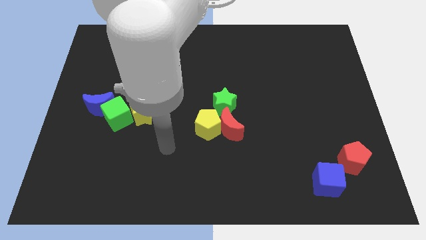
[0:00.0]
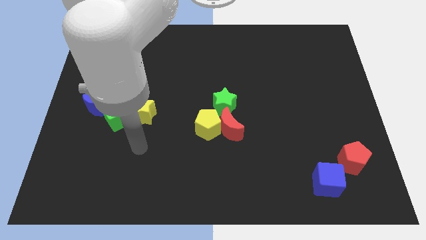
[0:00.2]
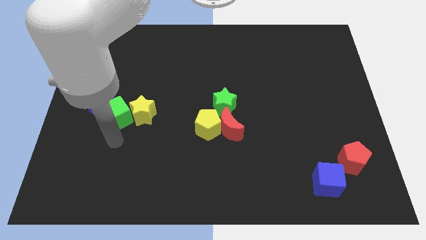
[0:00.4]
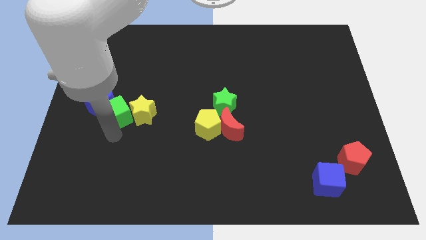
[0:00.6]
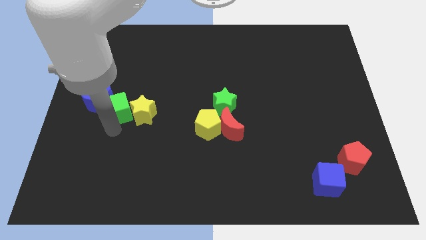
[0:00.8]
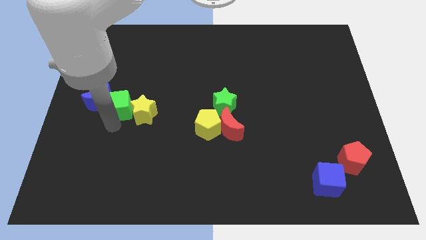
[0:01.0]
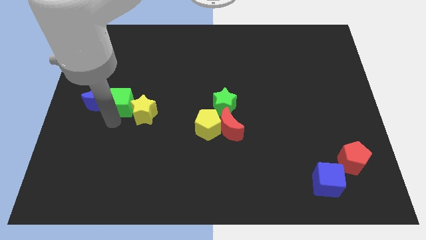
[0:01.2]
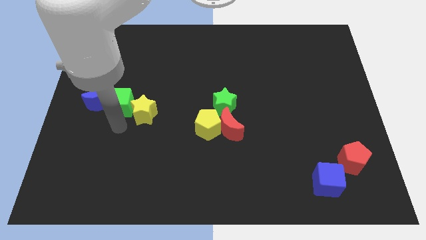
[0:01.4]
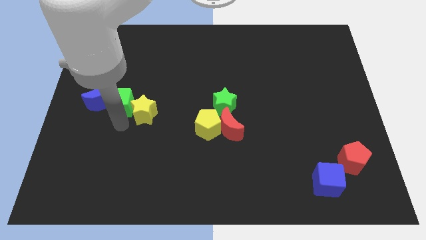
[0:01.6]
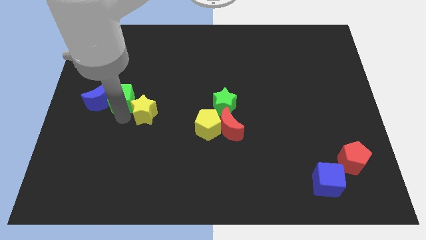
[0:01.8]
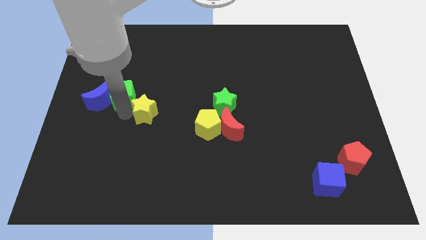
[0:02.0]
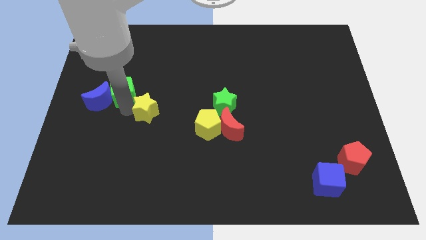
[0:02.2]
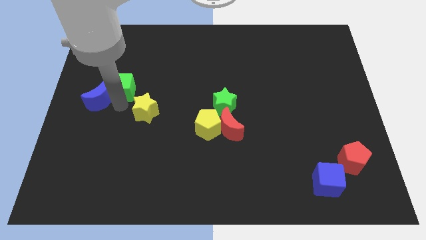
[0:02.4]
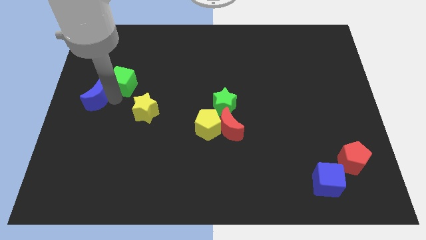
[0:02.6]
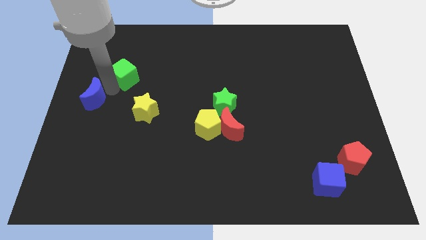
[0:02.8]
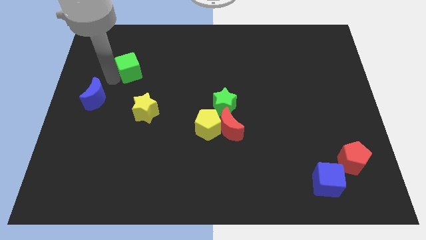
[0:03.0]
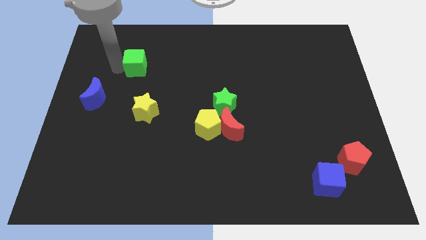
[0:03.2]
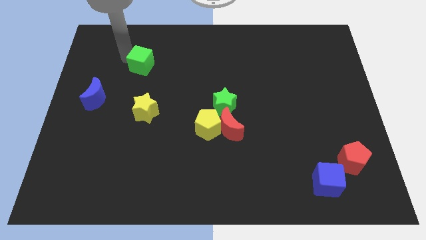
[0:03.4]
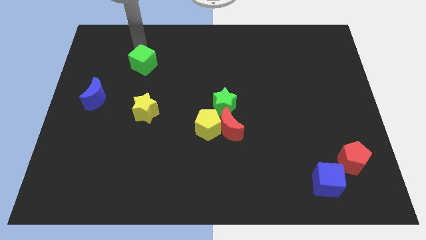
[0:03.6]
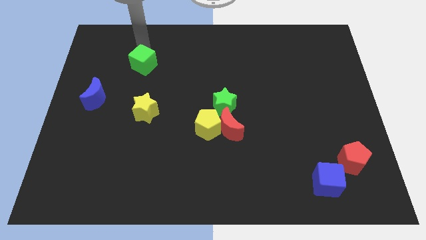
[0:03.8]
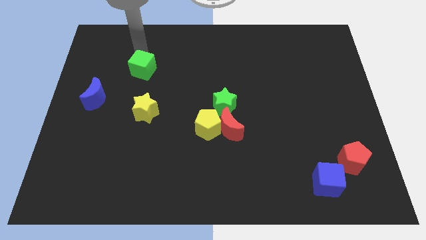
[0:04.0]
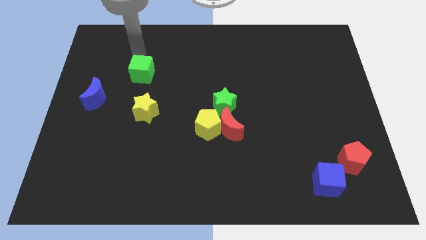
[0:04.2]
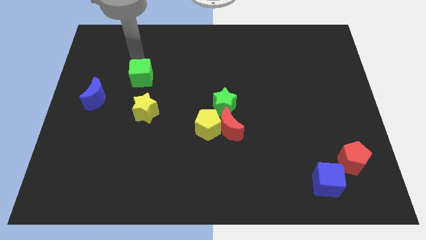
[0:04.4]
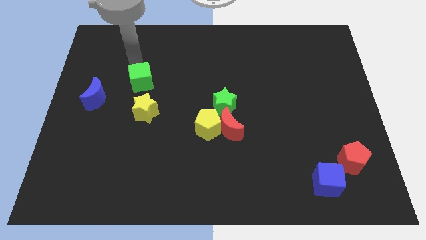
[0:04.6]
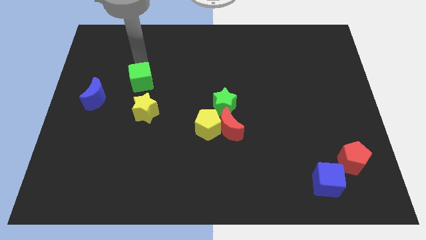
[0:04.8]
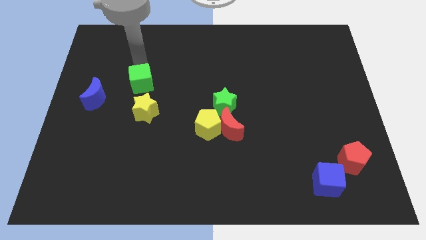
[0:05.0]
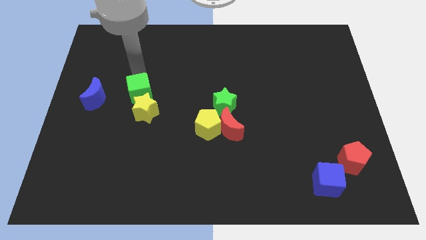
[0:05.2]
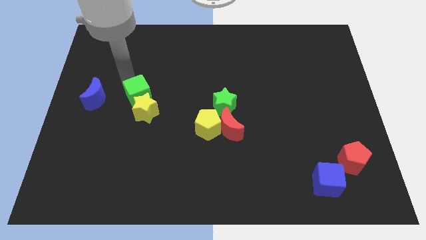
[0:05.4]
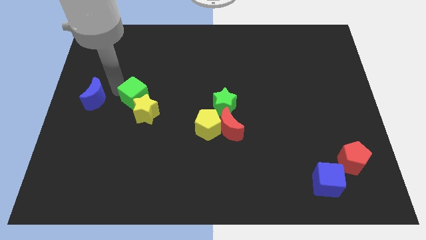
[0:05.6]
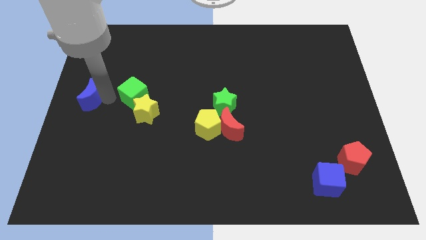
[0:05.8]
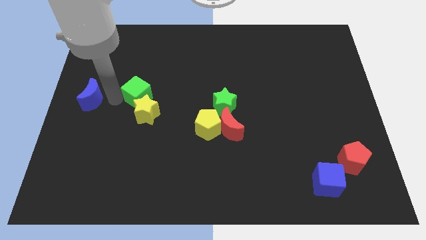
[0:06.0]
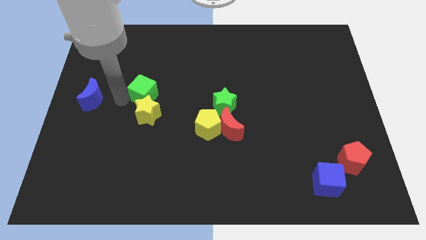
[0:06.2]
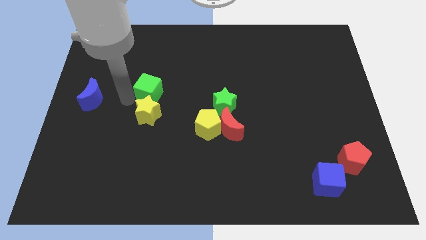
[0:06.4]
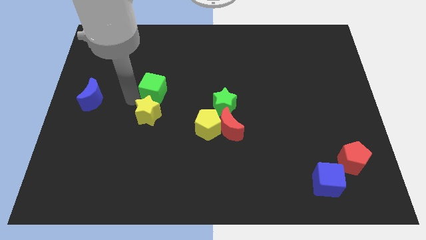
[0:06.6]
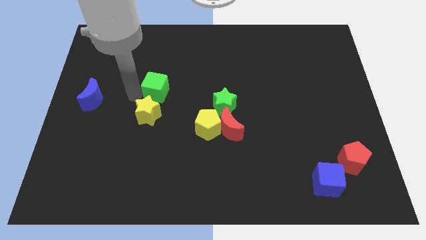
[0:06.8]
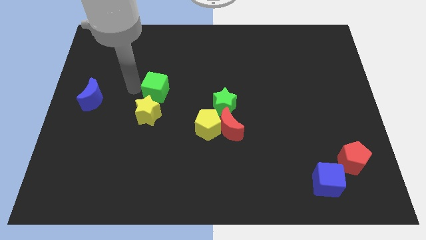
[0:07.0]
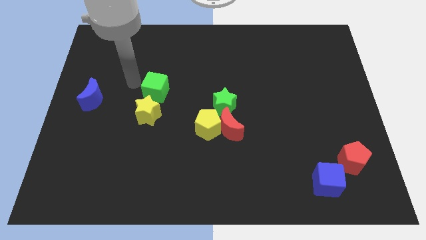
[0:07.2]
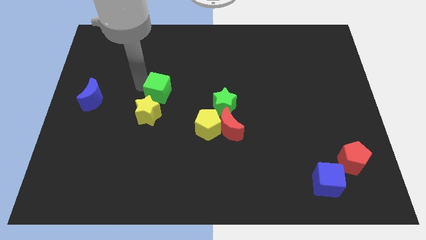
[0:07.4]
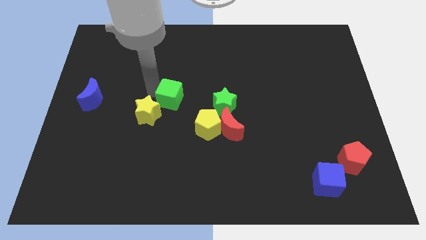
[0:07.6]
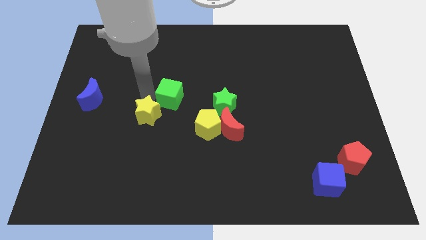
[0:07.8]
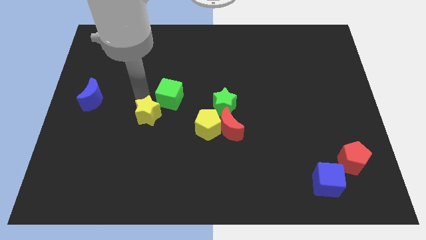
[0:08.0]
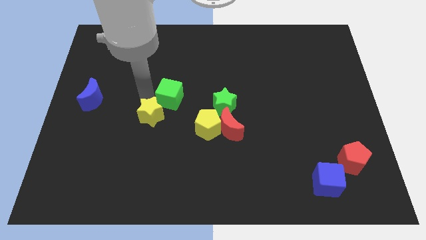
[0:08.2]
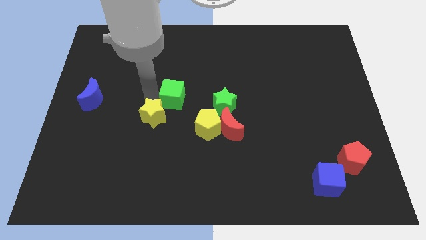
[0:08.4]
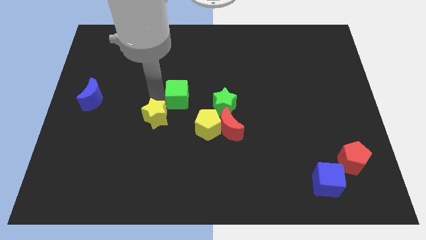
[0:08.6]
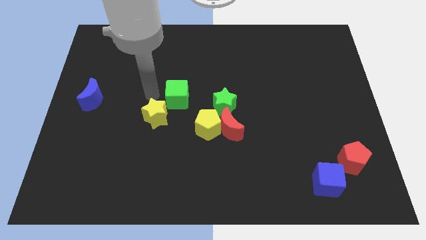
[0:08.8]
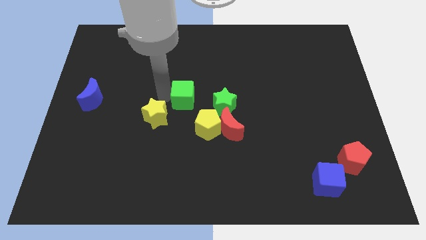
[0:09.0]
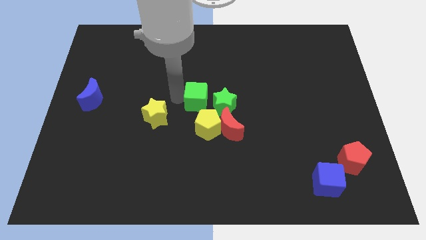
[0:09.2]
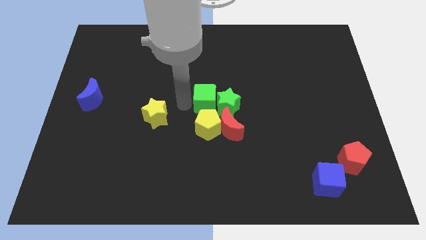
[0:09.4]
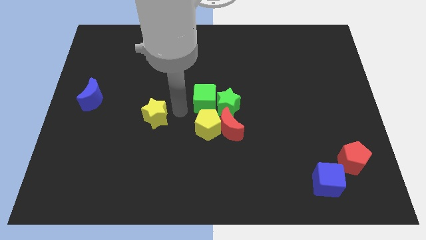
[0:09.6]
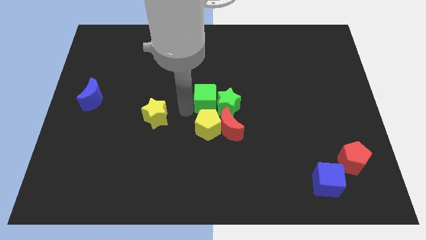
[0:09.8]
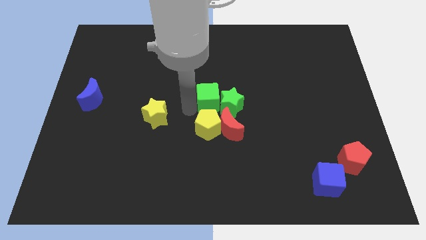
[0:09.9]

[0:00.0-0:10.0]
put the green cube to the top side of the red moon

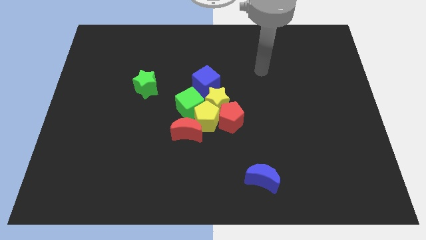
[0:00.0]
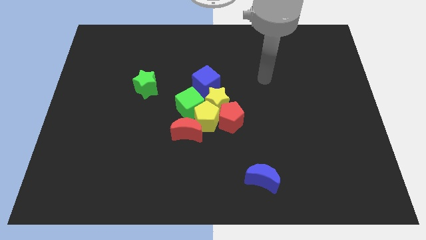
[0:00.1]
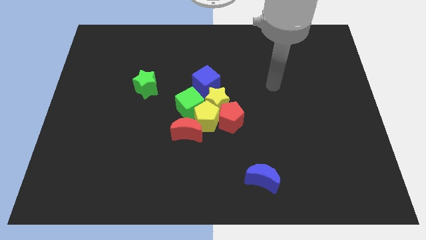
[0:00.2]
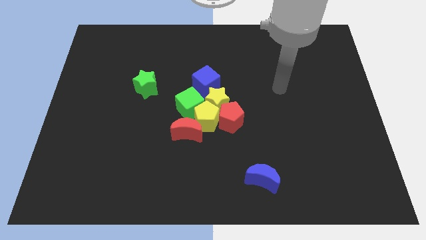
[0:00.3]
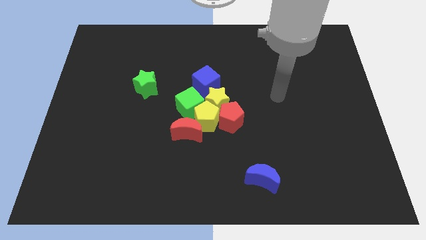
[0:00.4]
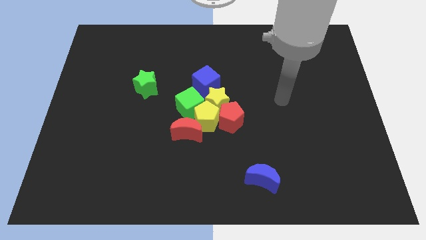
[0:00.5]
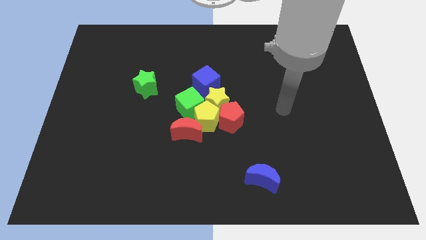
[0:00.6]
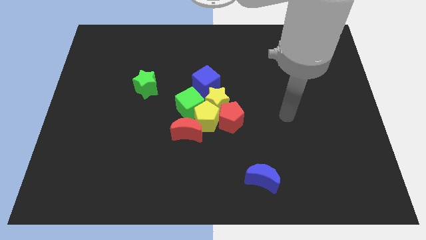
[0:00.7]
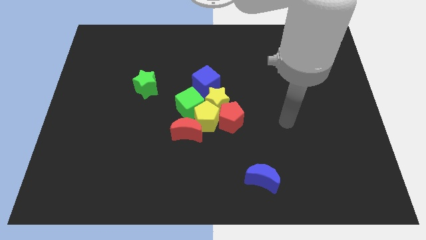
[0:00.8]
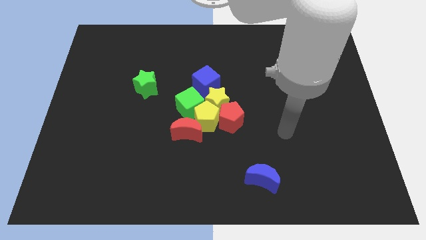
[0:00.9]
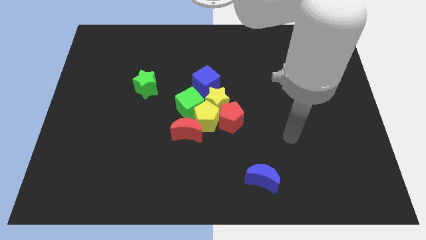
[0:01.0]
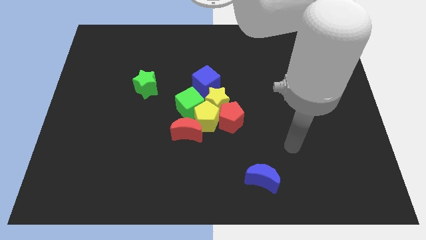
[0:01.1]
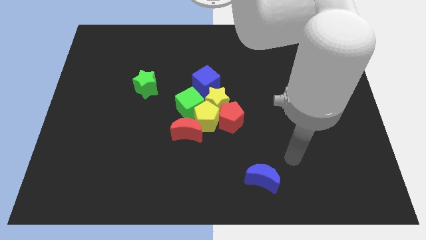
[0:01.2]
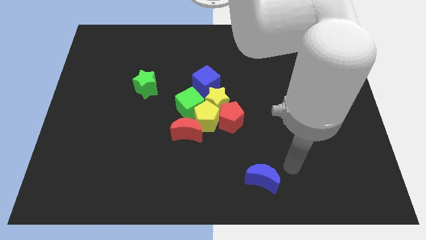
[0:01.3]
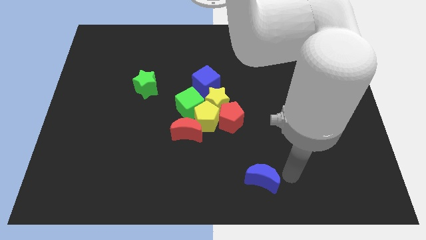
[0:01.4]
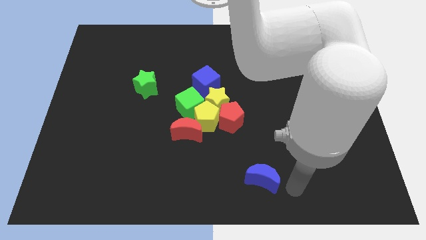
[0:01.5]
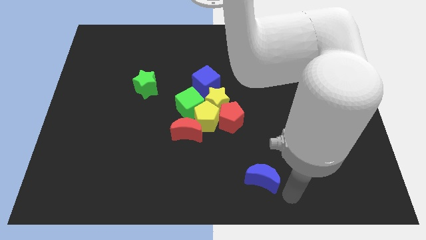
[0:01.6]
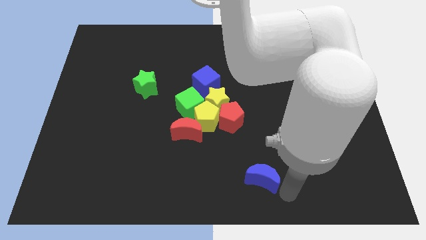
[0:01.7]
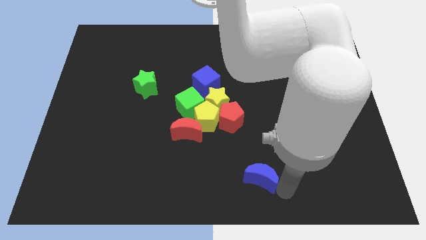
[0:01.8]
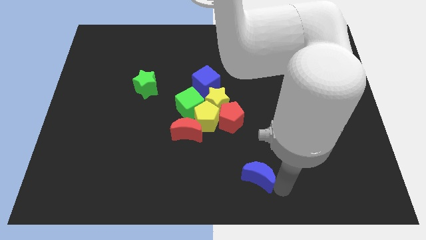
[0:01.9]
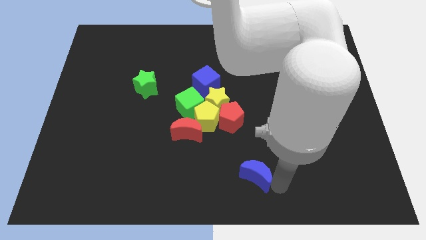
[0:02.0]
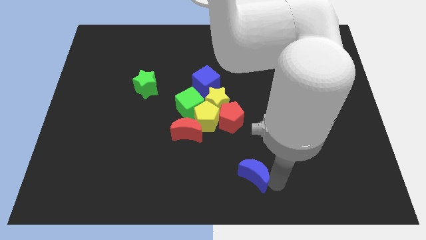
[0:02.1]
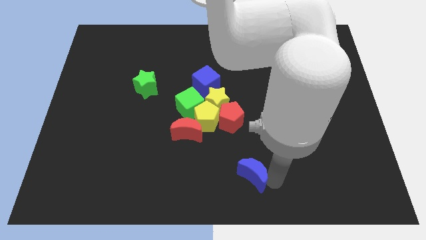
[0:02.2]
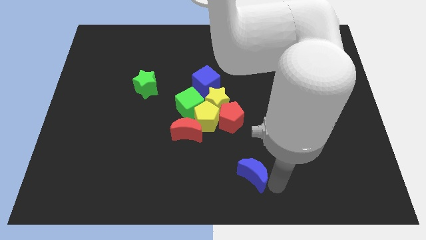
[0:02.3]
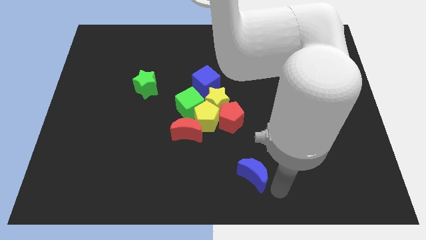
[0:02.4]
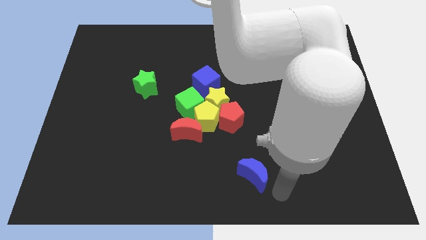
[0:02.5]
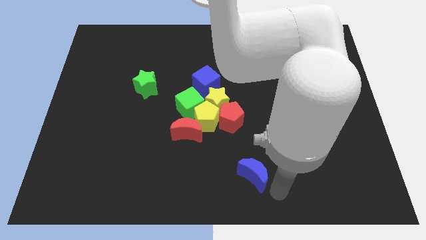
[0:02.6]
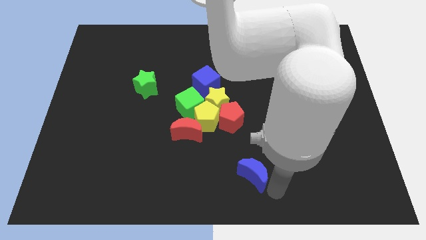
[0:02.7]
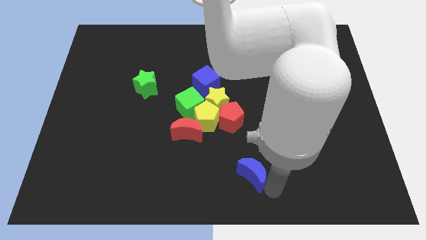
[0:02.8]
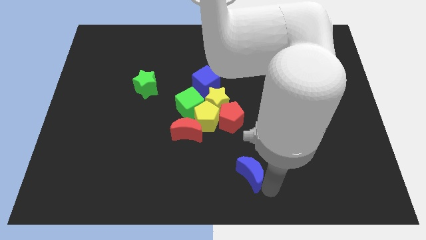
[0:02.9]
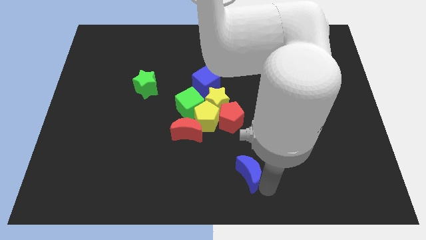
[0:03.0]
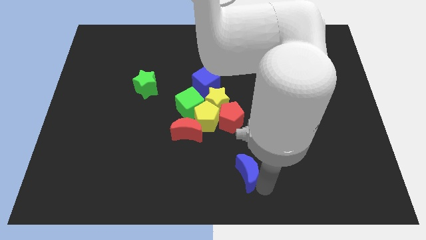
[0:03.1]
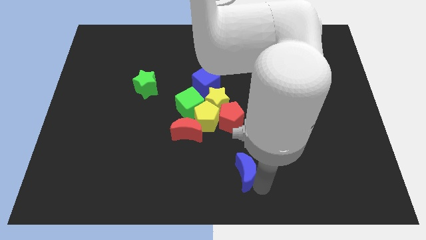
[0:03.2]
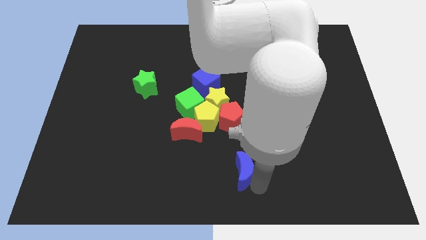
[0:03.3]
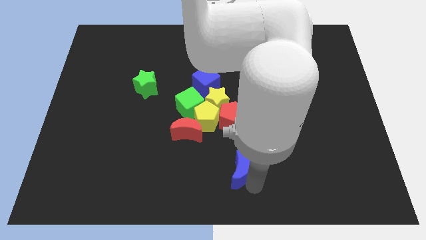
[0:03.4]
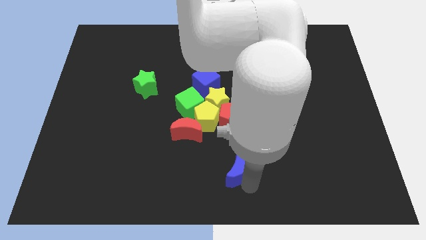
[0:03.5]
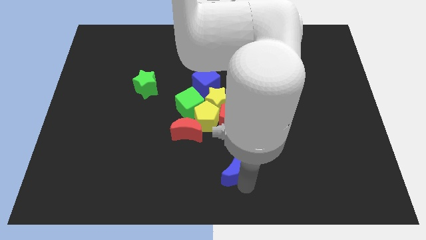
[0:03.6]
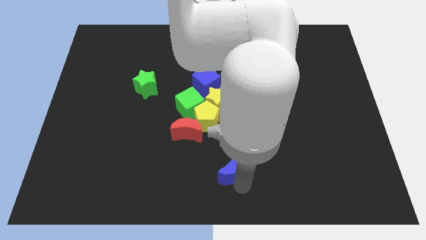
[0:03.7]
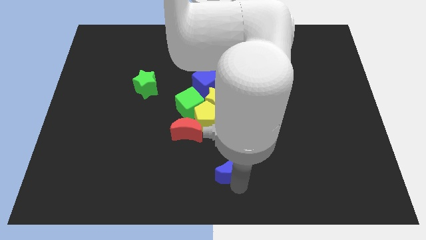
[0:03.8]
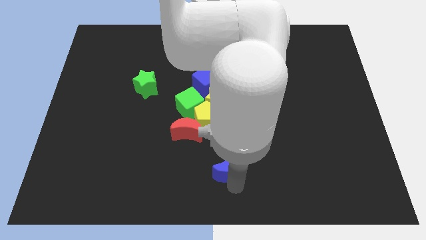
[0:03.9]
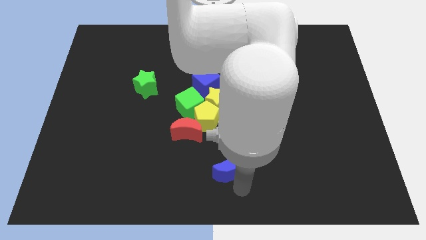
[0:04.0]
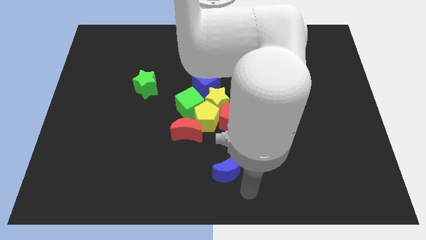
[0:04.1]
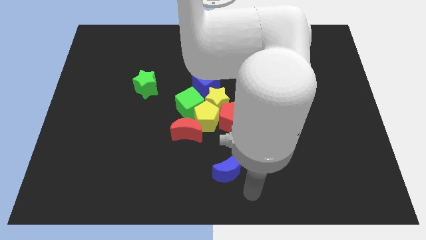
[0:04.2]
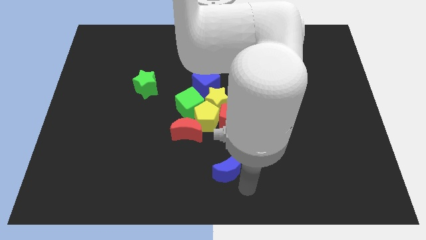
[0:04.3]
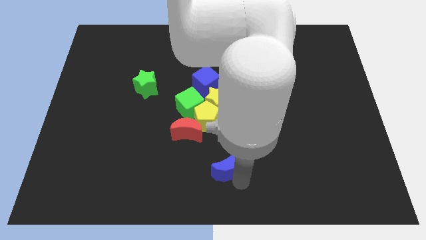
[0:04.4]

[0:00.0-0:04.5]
slide the blue moon to the bottom right side of the red moon
